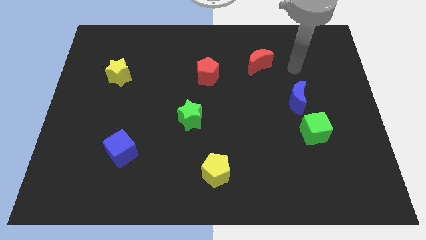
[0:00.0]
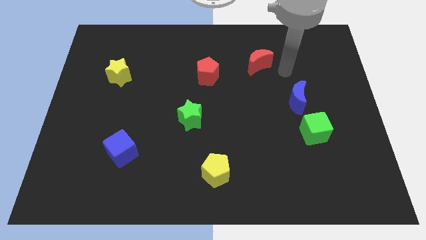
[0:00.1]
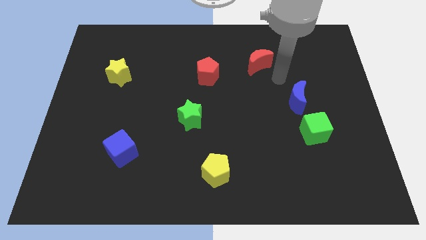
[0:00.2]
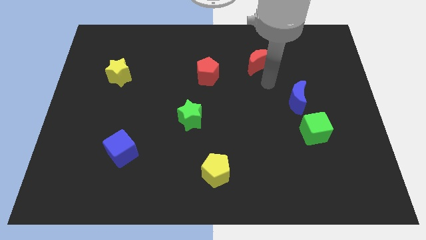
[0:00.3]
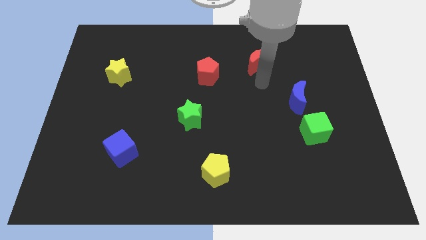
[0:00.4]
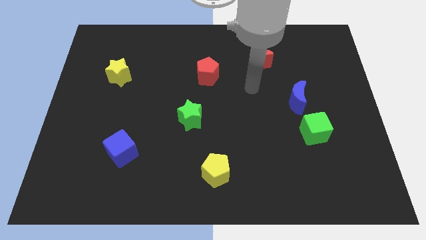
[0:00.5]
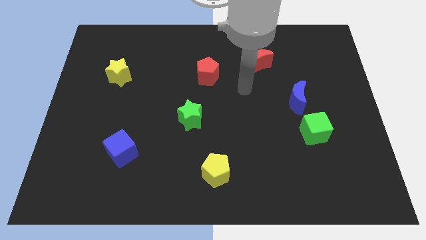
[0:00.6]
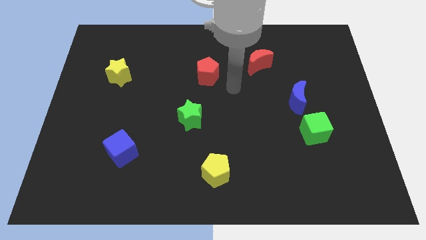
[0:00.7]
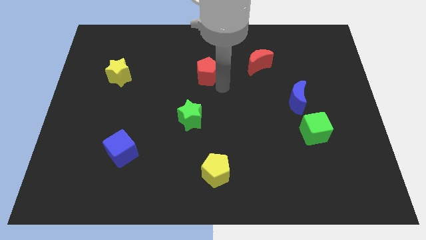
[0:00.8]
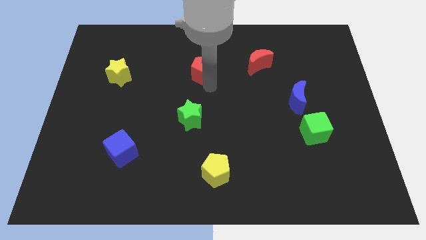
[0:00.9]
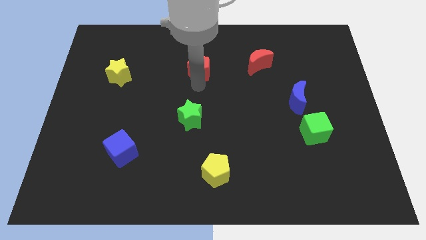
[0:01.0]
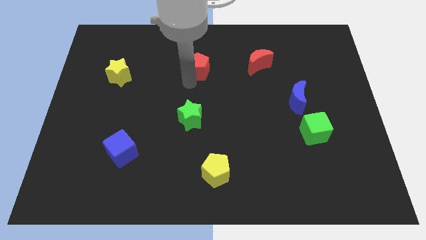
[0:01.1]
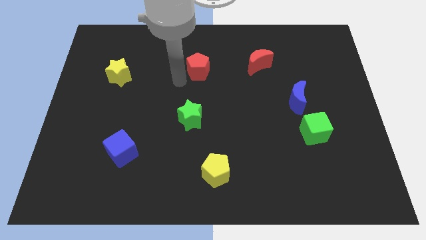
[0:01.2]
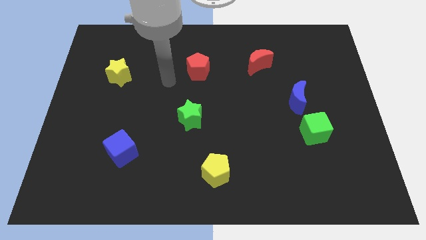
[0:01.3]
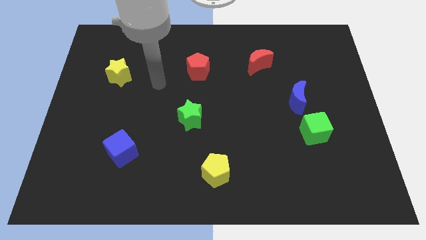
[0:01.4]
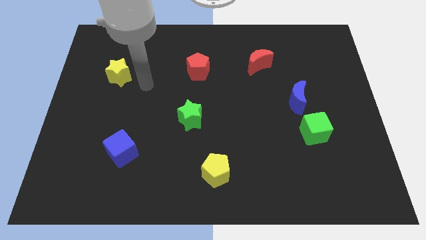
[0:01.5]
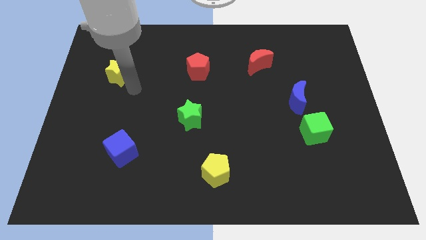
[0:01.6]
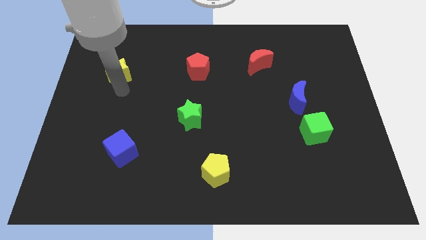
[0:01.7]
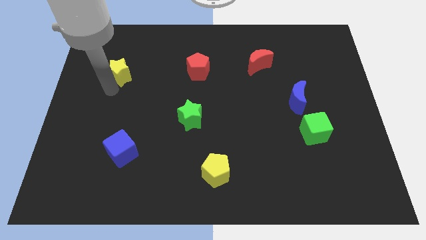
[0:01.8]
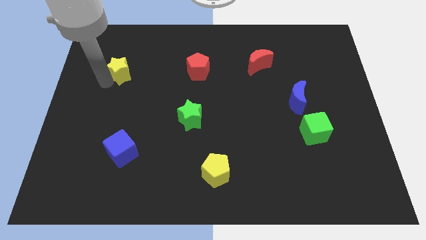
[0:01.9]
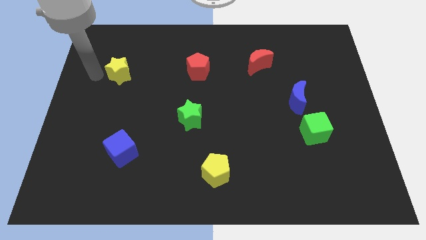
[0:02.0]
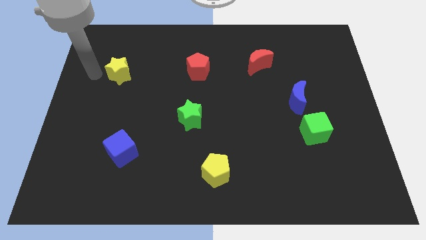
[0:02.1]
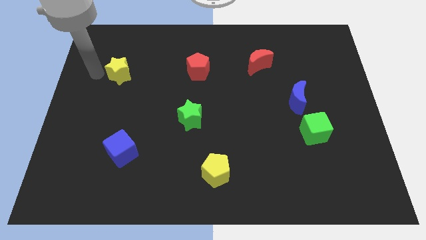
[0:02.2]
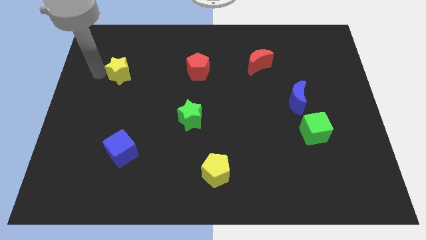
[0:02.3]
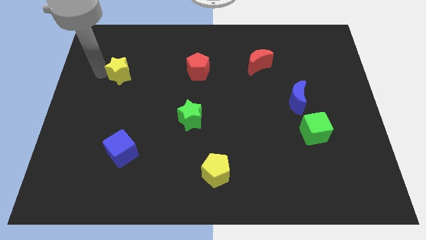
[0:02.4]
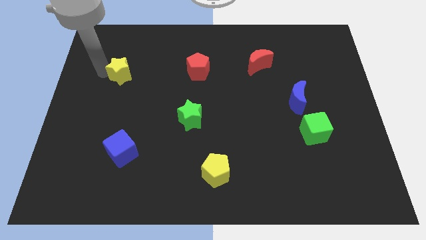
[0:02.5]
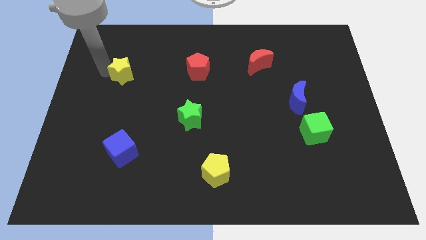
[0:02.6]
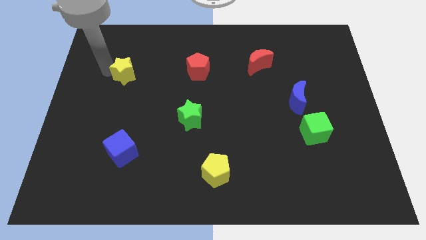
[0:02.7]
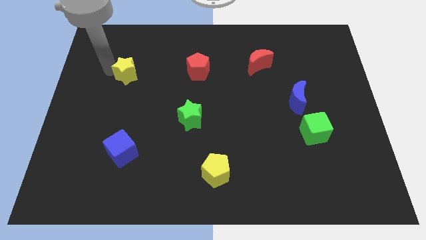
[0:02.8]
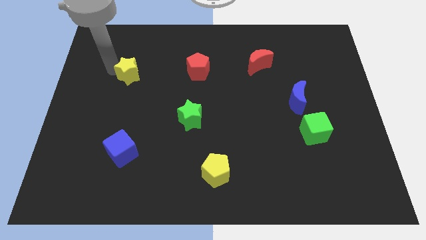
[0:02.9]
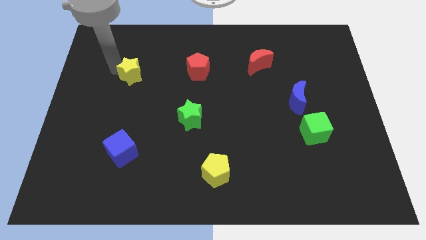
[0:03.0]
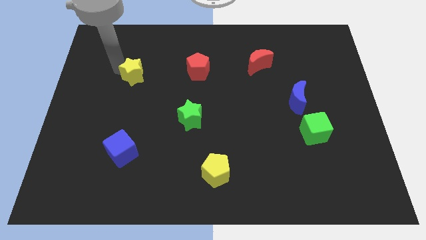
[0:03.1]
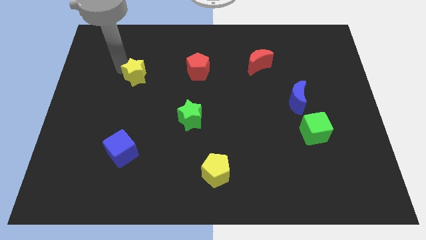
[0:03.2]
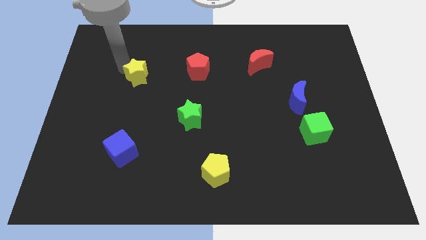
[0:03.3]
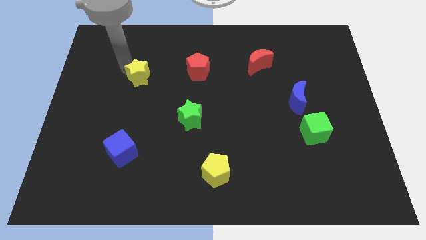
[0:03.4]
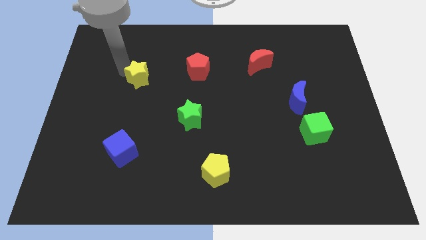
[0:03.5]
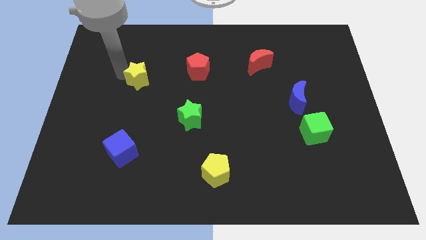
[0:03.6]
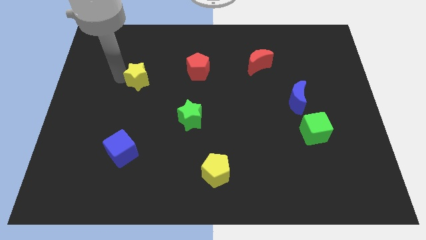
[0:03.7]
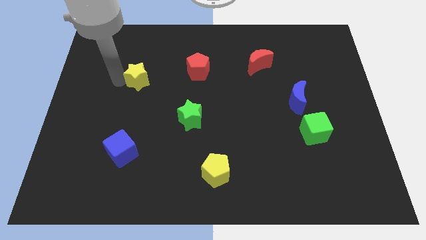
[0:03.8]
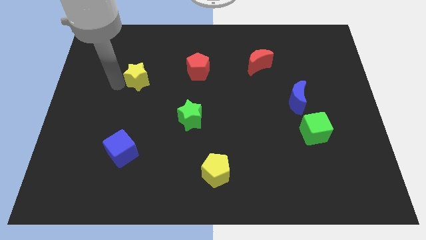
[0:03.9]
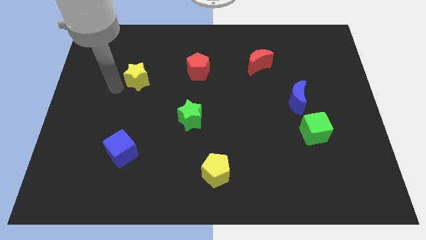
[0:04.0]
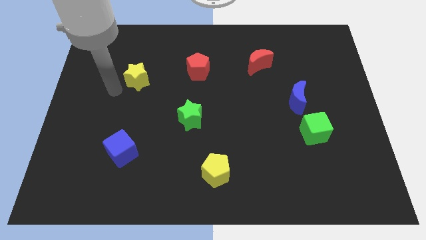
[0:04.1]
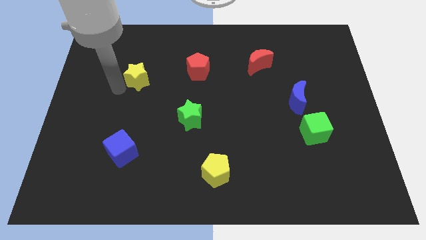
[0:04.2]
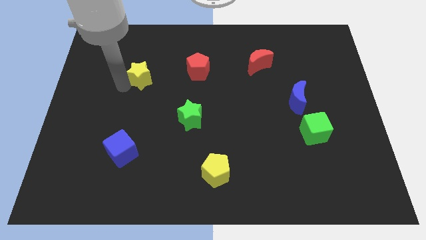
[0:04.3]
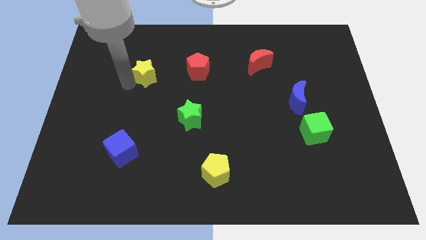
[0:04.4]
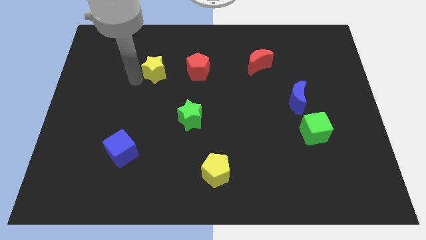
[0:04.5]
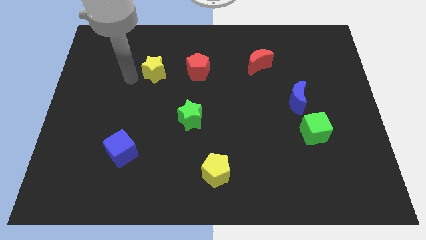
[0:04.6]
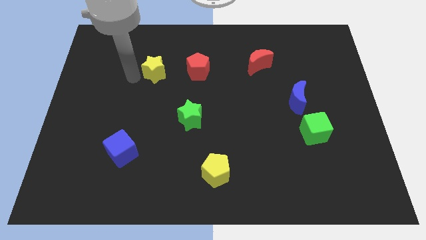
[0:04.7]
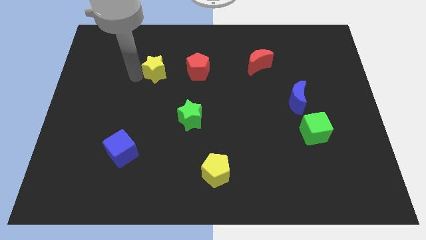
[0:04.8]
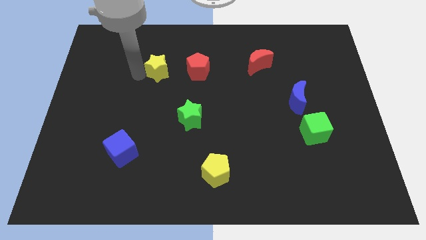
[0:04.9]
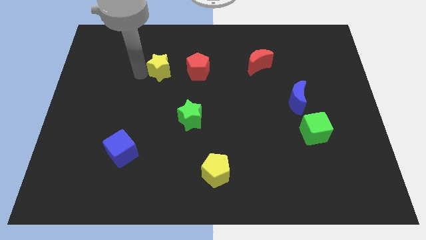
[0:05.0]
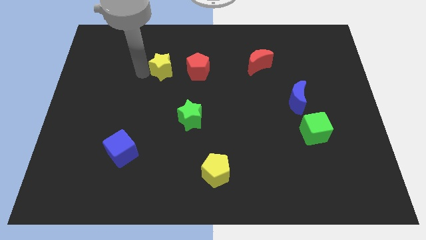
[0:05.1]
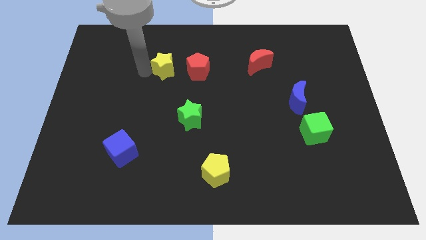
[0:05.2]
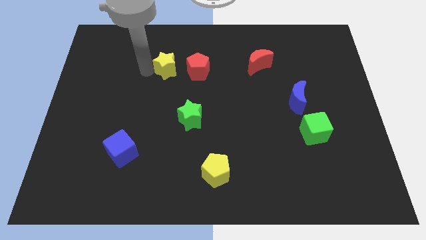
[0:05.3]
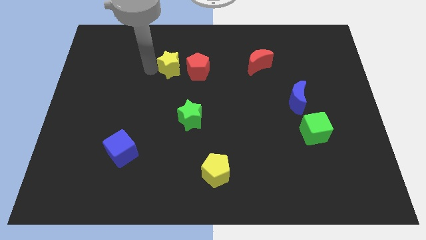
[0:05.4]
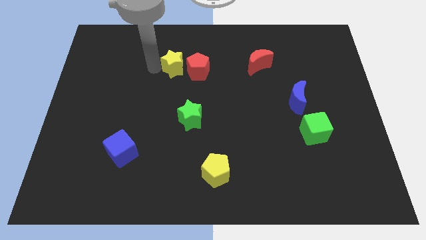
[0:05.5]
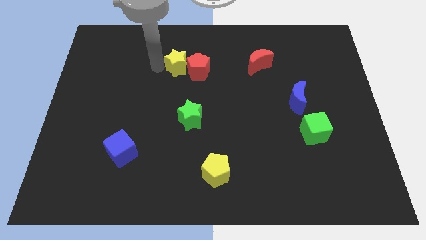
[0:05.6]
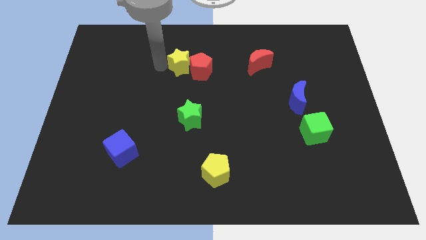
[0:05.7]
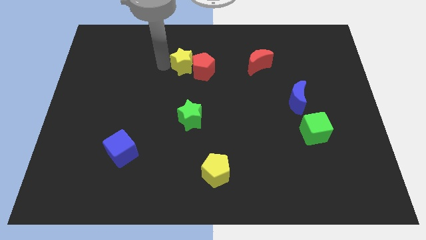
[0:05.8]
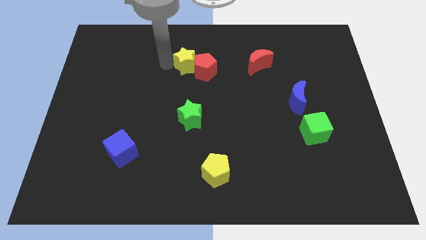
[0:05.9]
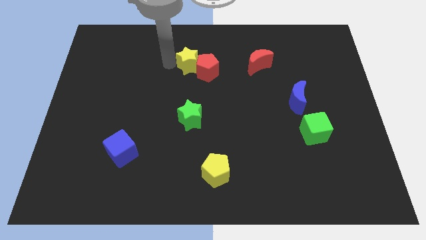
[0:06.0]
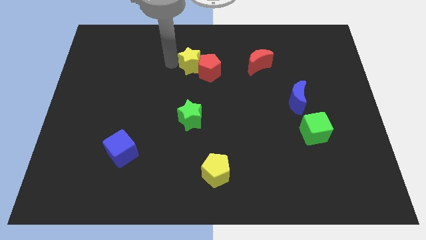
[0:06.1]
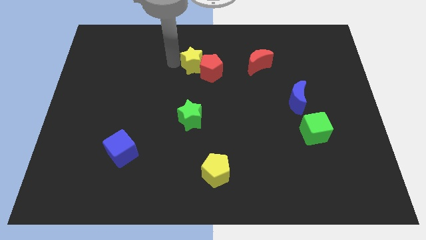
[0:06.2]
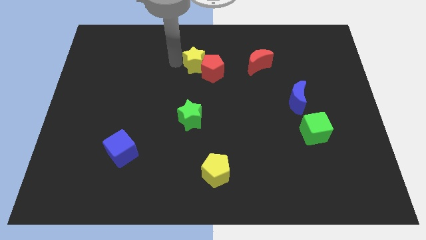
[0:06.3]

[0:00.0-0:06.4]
slide the yellow star left of the red moon
